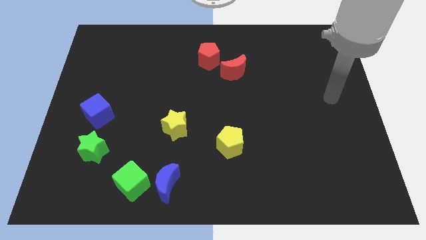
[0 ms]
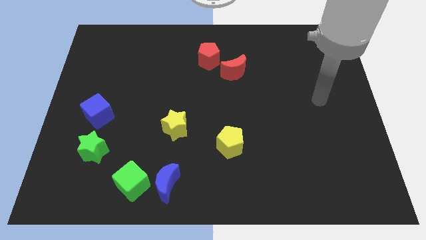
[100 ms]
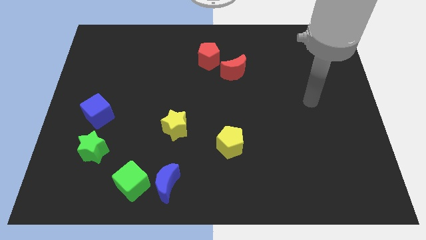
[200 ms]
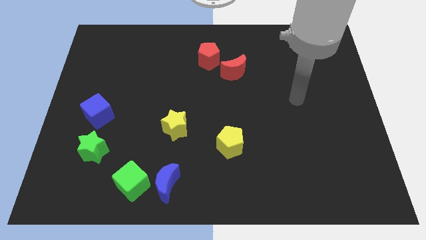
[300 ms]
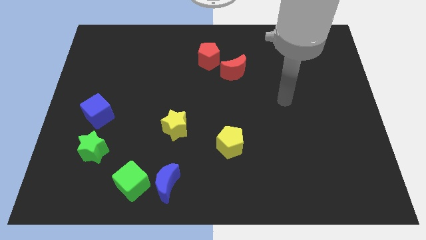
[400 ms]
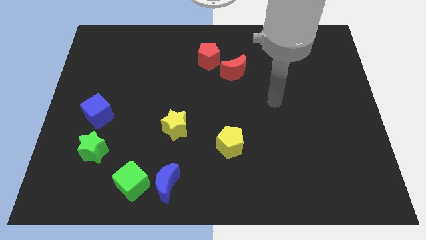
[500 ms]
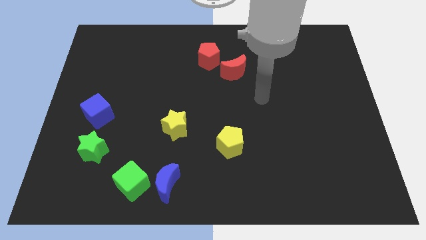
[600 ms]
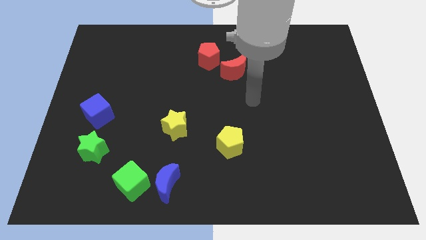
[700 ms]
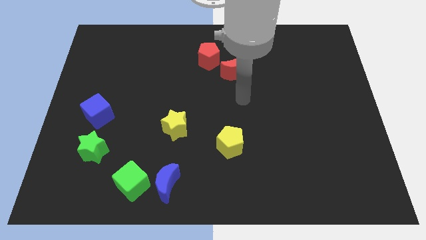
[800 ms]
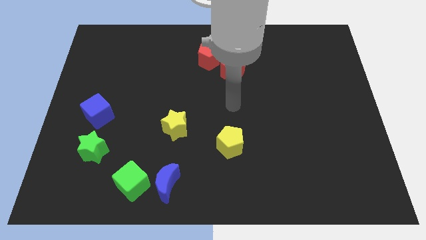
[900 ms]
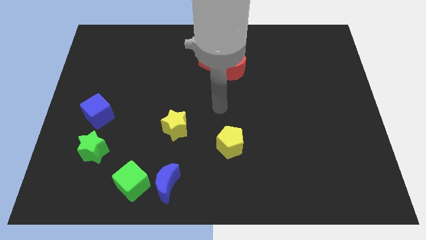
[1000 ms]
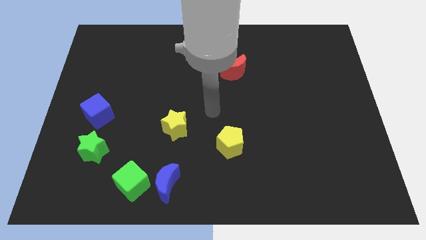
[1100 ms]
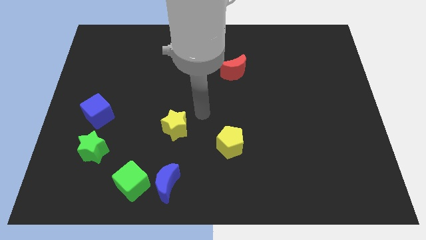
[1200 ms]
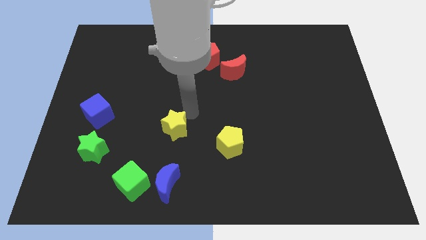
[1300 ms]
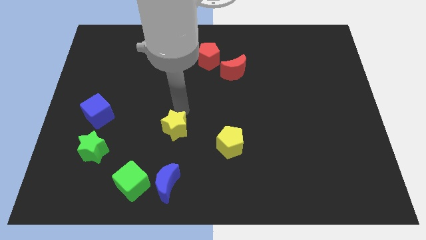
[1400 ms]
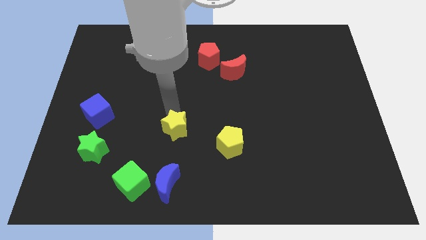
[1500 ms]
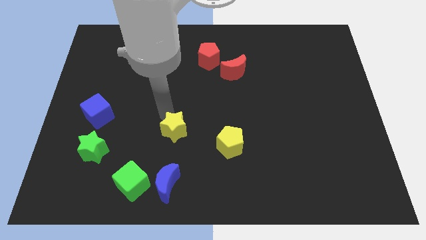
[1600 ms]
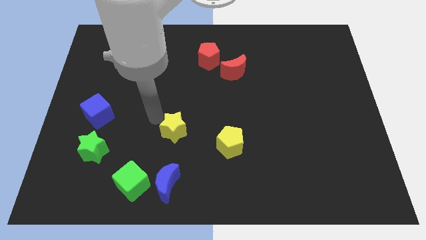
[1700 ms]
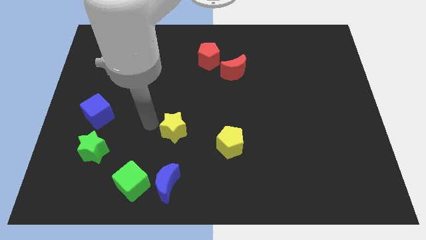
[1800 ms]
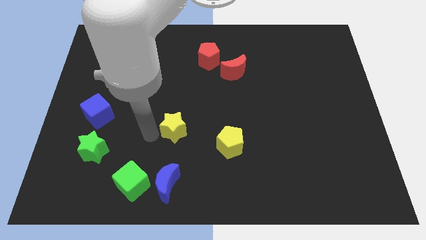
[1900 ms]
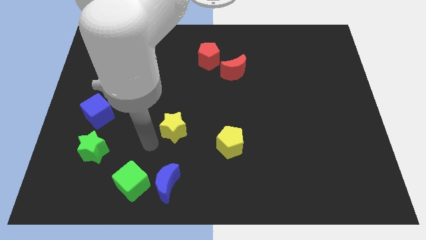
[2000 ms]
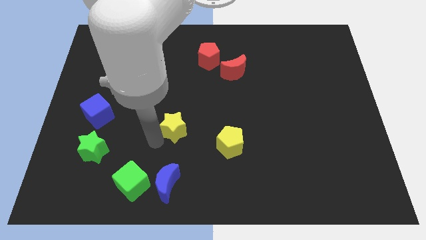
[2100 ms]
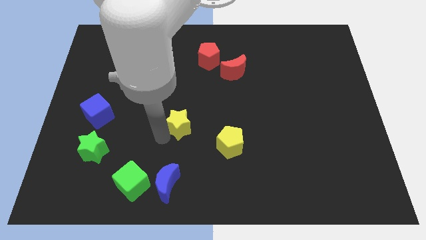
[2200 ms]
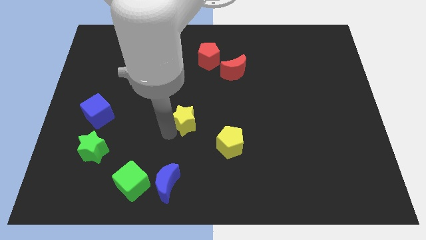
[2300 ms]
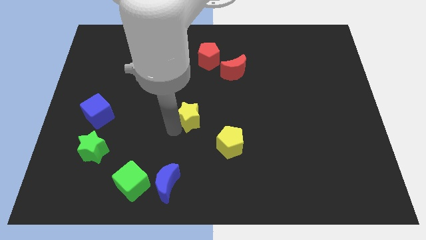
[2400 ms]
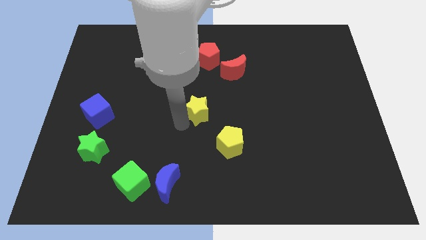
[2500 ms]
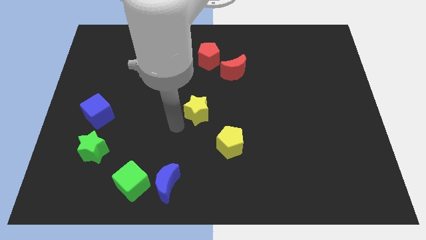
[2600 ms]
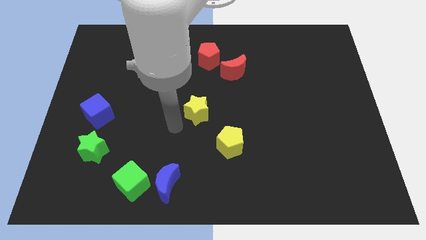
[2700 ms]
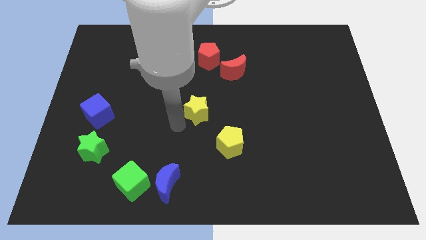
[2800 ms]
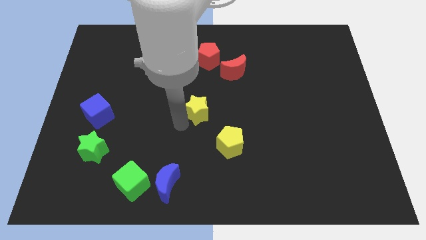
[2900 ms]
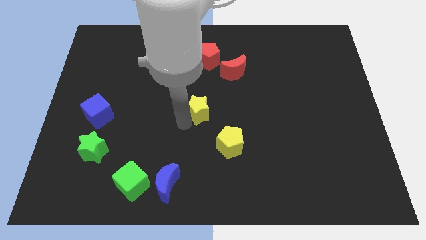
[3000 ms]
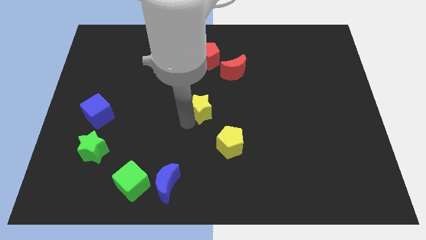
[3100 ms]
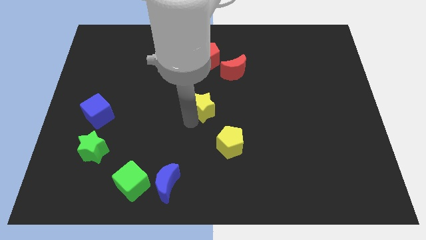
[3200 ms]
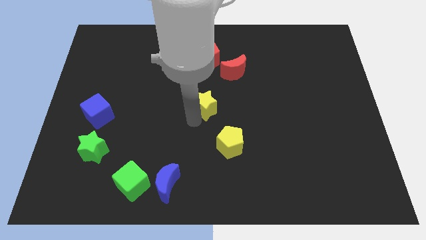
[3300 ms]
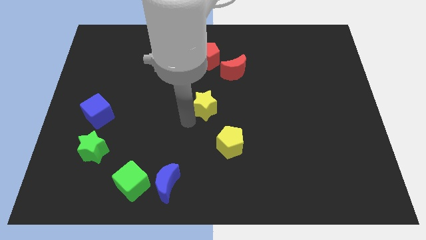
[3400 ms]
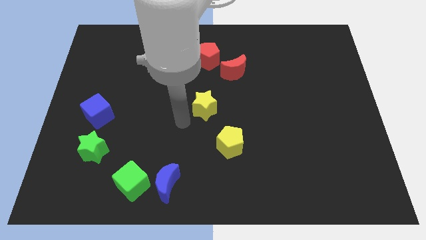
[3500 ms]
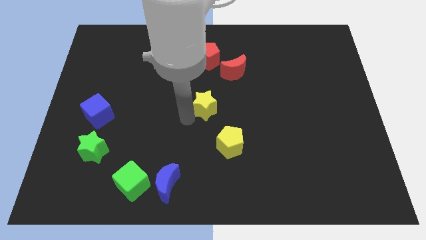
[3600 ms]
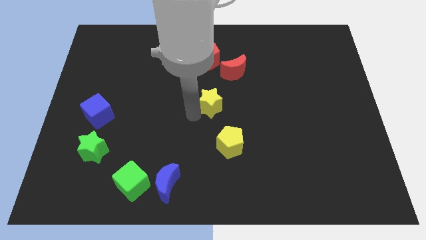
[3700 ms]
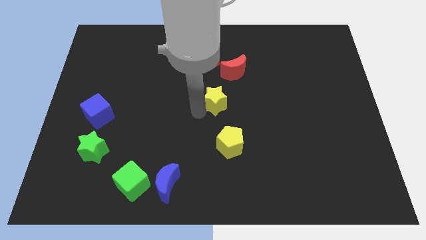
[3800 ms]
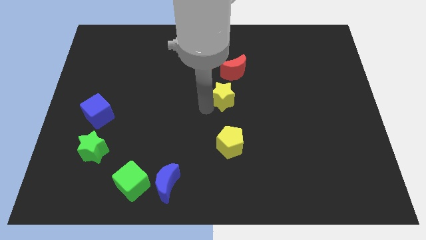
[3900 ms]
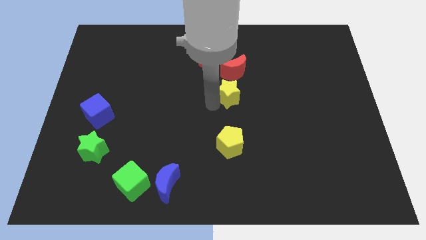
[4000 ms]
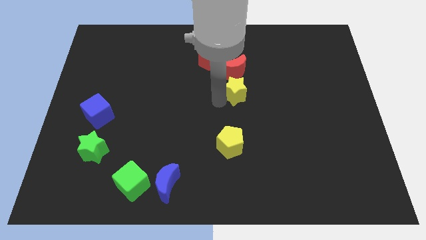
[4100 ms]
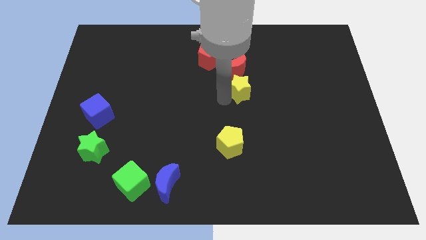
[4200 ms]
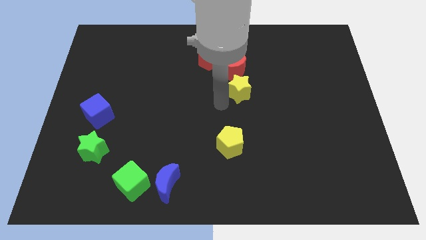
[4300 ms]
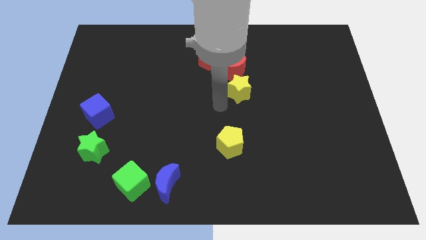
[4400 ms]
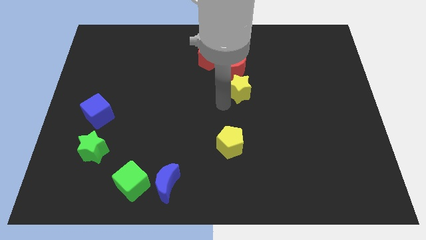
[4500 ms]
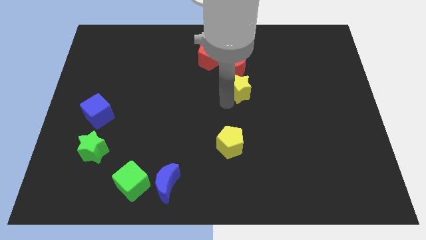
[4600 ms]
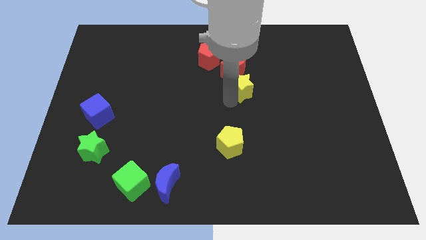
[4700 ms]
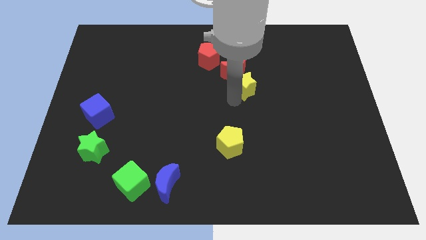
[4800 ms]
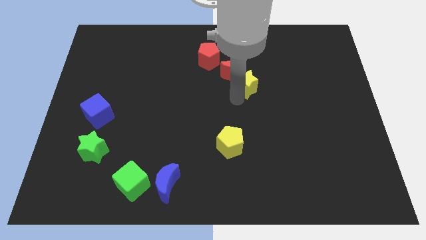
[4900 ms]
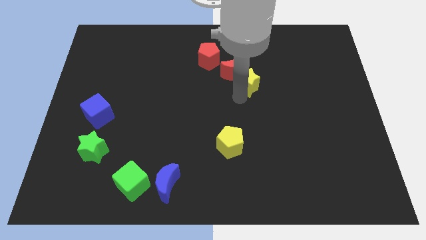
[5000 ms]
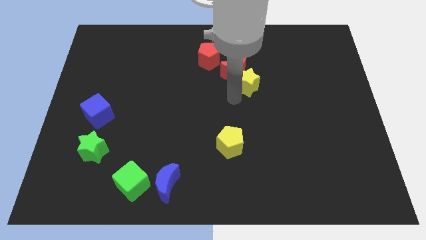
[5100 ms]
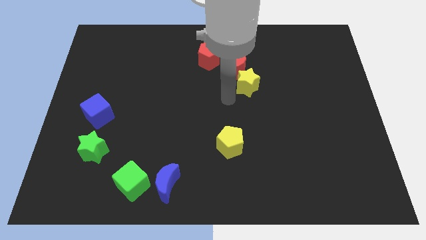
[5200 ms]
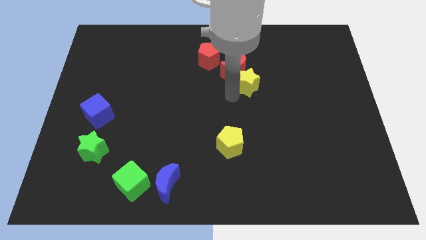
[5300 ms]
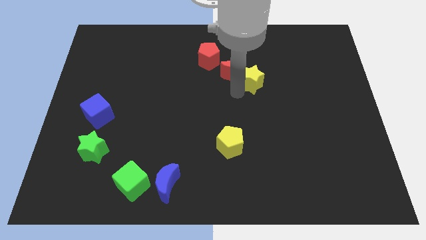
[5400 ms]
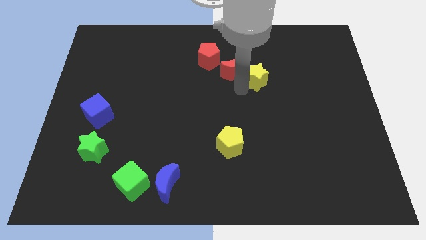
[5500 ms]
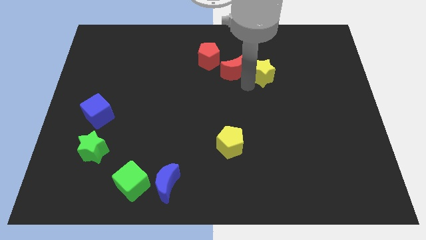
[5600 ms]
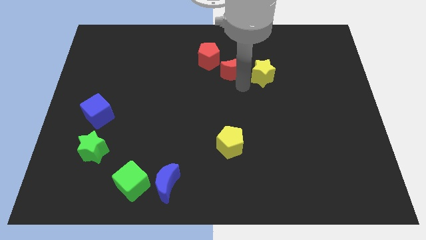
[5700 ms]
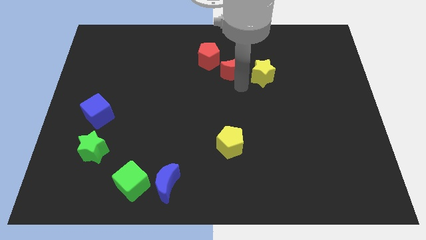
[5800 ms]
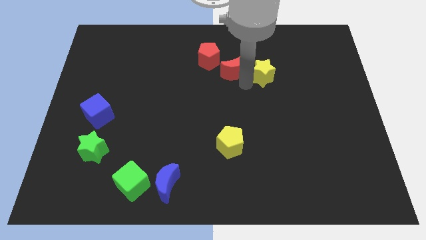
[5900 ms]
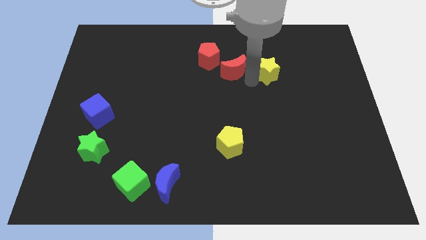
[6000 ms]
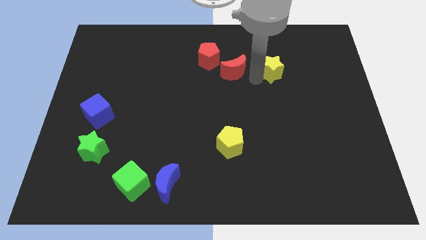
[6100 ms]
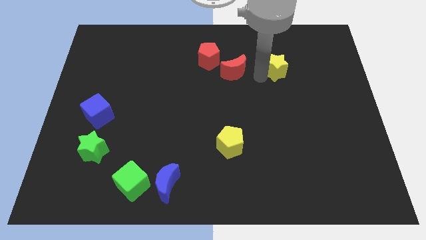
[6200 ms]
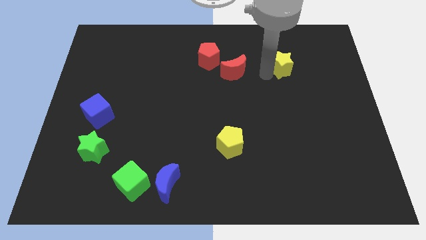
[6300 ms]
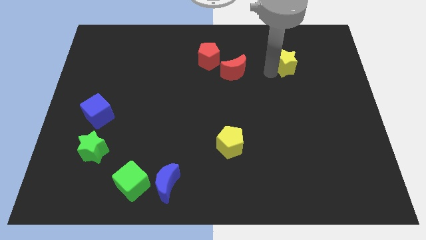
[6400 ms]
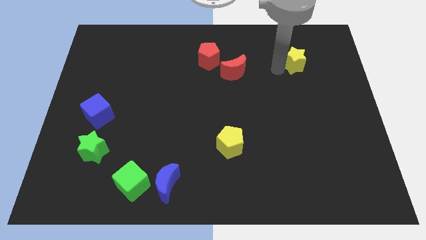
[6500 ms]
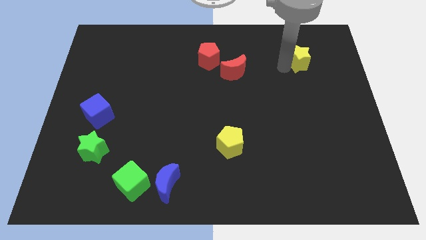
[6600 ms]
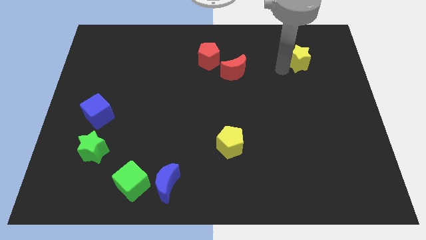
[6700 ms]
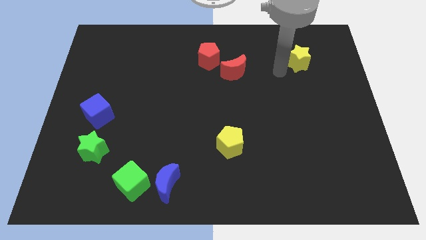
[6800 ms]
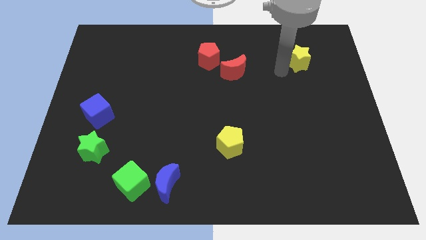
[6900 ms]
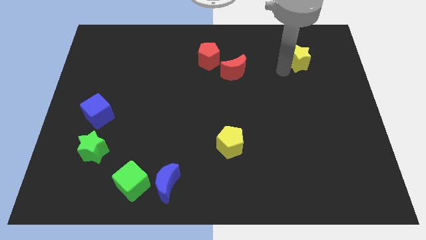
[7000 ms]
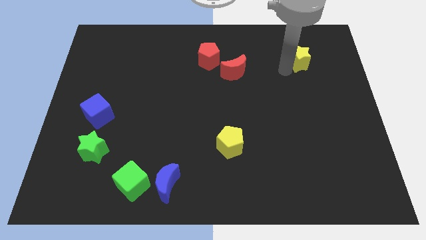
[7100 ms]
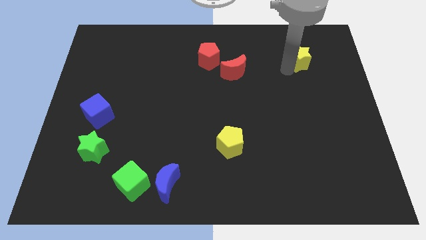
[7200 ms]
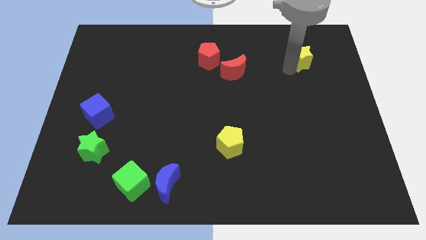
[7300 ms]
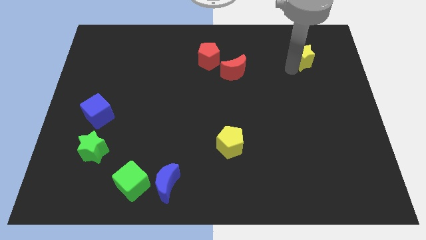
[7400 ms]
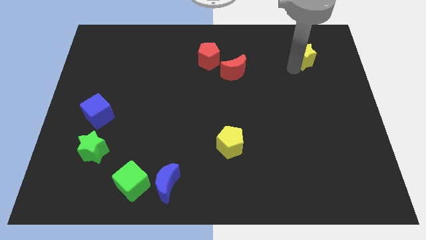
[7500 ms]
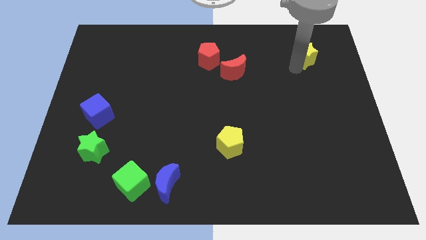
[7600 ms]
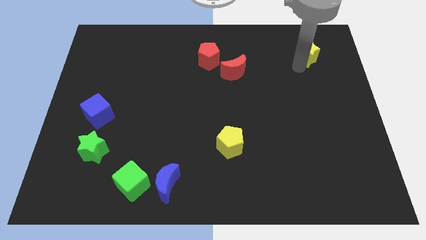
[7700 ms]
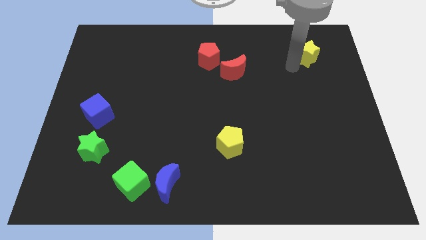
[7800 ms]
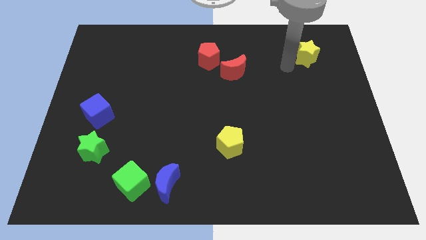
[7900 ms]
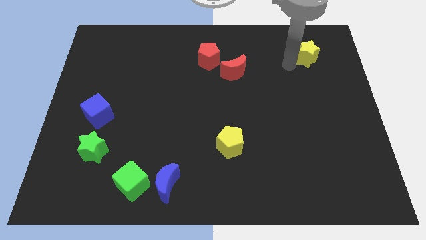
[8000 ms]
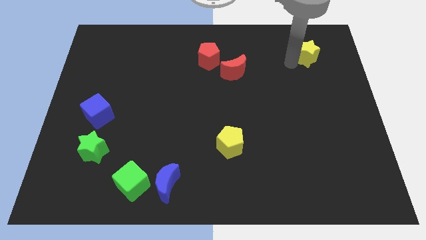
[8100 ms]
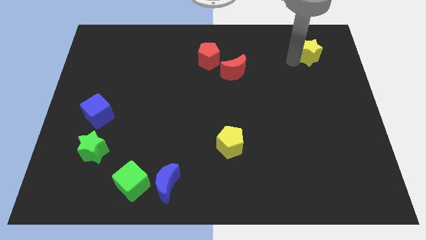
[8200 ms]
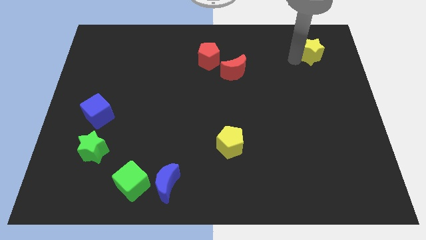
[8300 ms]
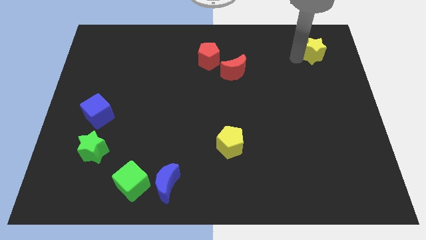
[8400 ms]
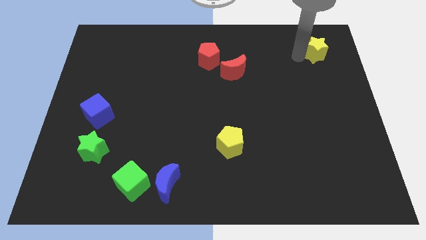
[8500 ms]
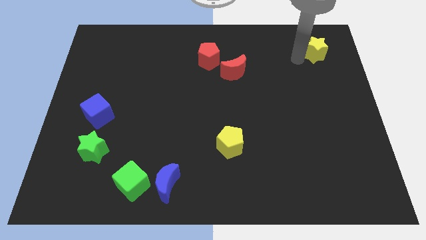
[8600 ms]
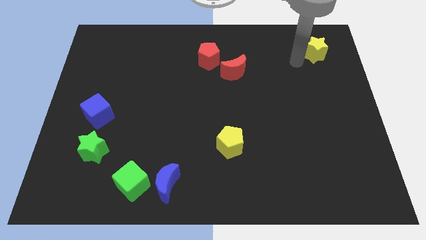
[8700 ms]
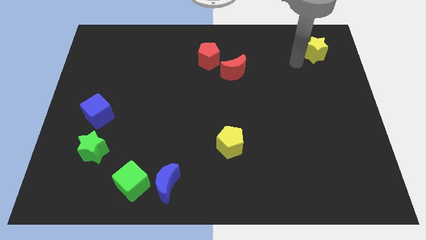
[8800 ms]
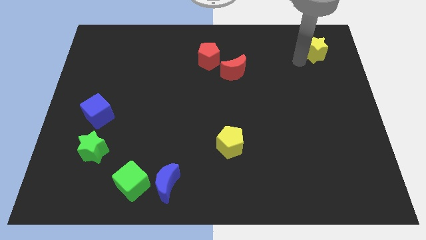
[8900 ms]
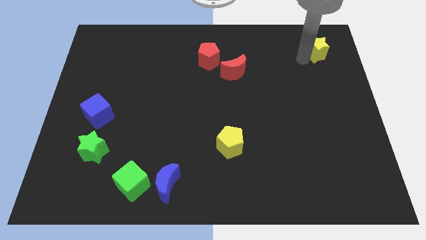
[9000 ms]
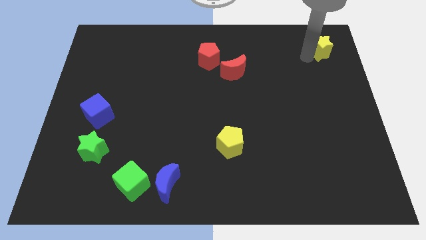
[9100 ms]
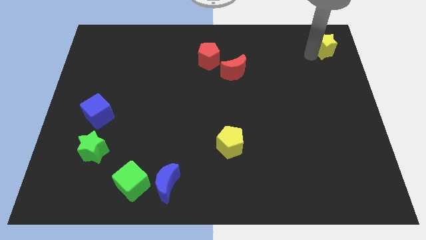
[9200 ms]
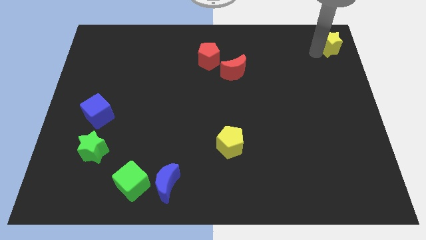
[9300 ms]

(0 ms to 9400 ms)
push the yellow star to the top right
